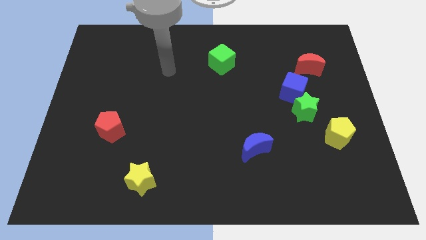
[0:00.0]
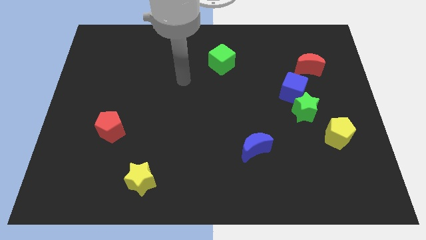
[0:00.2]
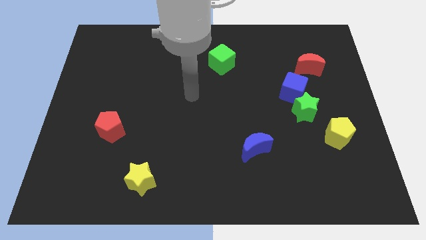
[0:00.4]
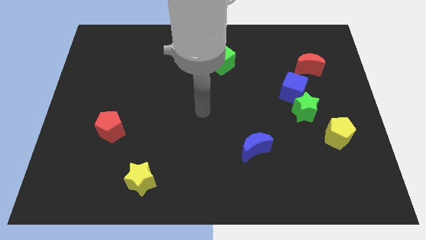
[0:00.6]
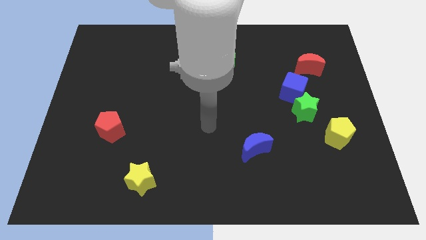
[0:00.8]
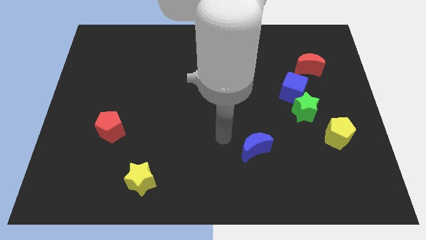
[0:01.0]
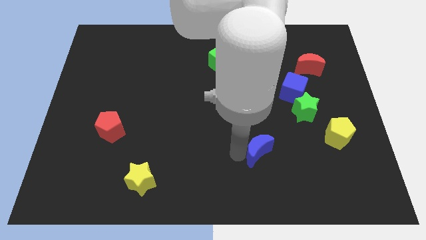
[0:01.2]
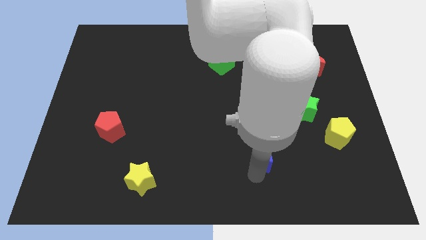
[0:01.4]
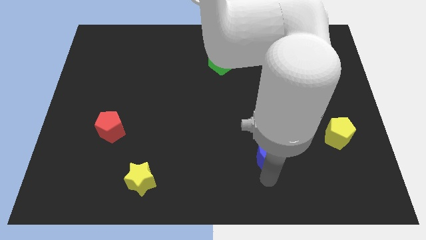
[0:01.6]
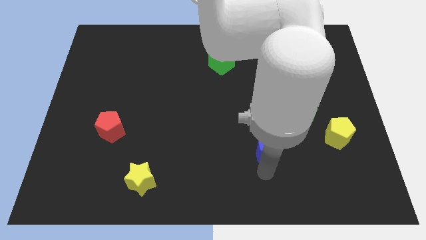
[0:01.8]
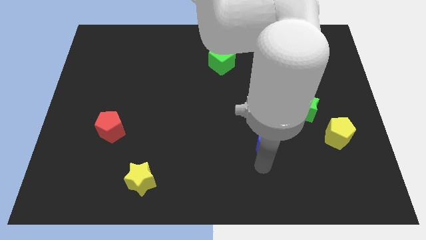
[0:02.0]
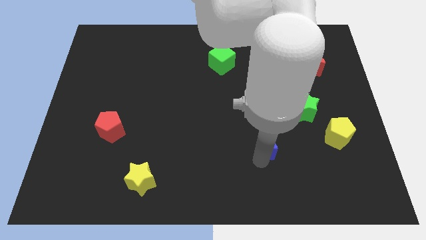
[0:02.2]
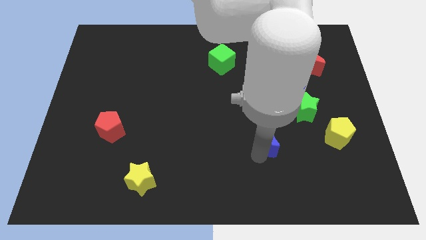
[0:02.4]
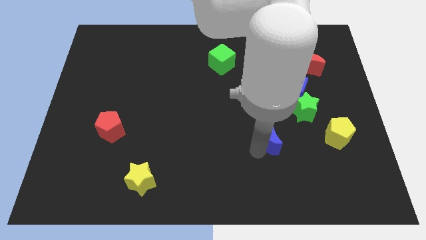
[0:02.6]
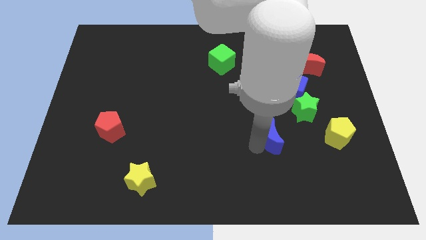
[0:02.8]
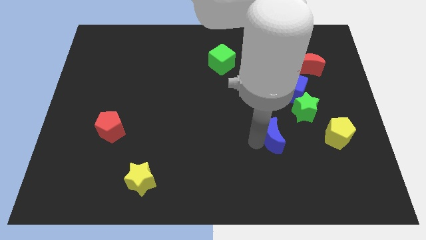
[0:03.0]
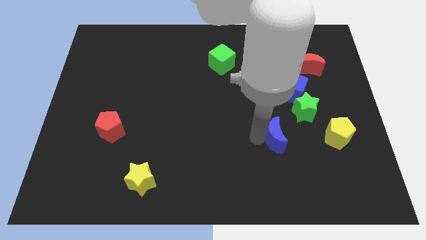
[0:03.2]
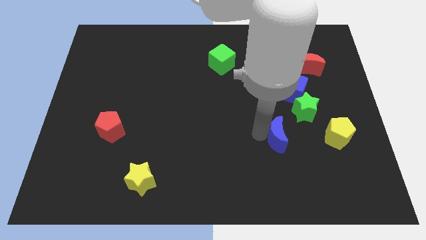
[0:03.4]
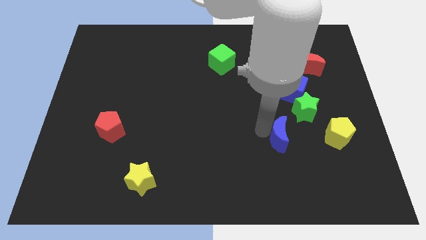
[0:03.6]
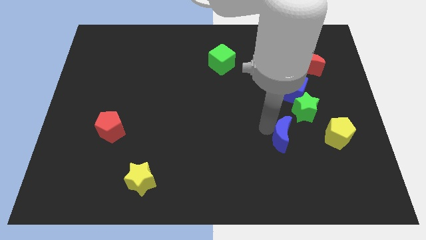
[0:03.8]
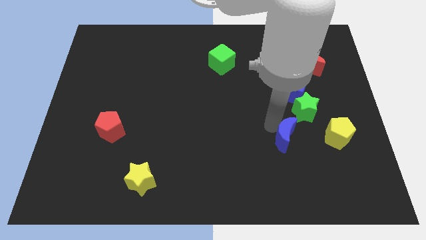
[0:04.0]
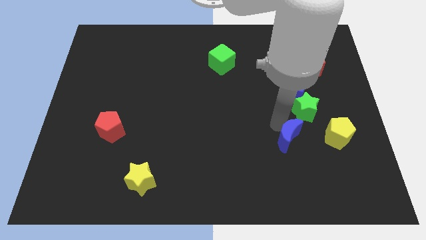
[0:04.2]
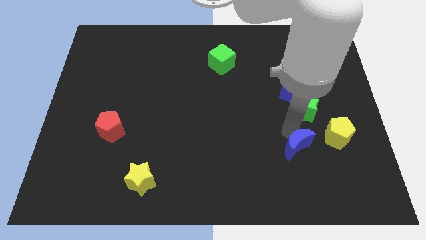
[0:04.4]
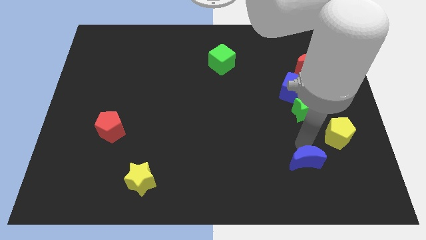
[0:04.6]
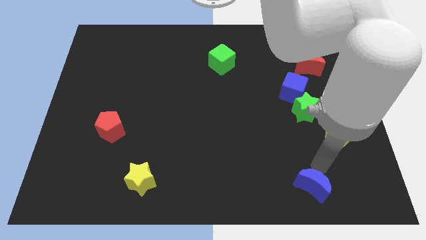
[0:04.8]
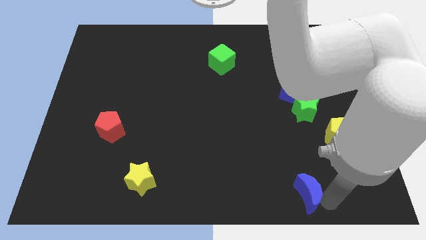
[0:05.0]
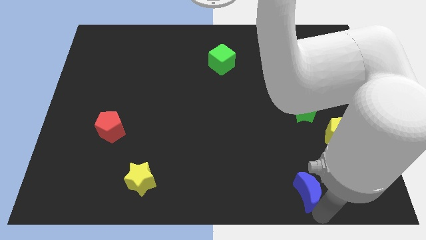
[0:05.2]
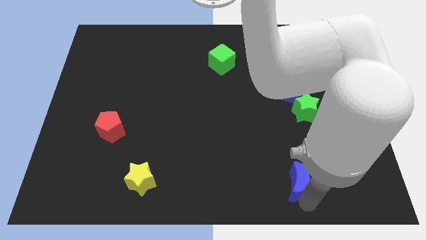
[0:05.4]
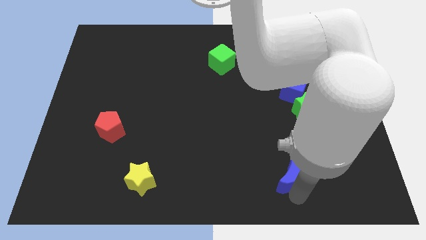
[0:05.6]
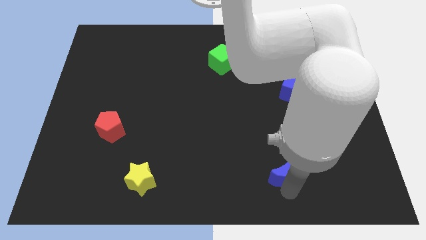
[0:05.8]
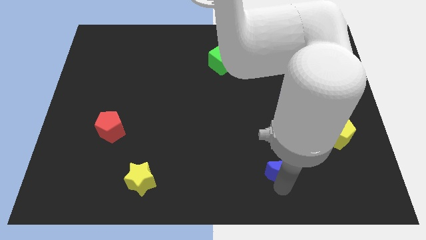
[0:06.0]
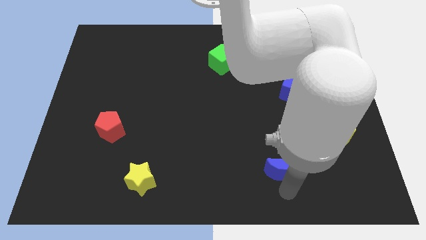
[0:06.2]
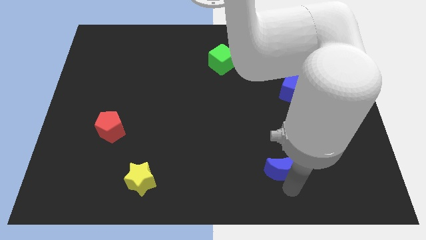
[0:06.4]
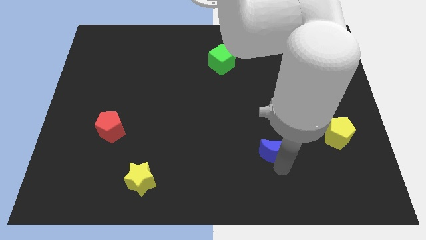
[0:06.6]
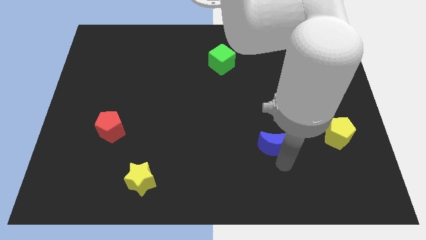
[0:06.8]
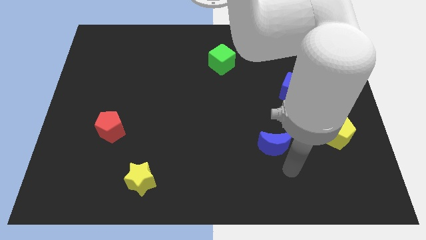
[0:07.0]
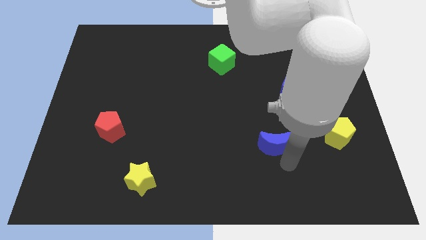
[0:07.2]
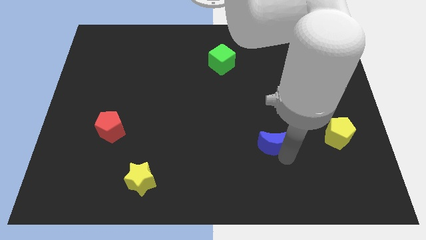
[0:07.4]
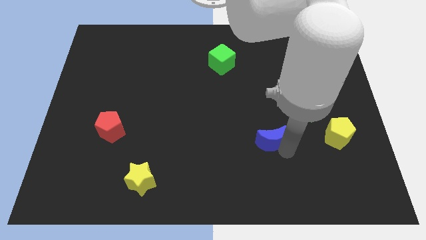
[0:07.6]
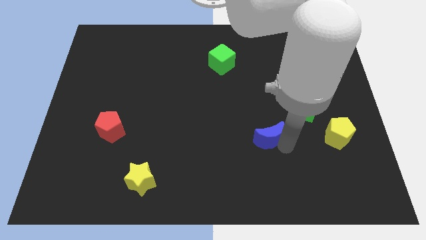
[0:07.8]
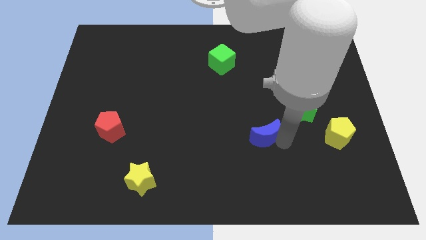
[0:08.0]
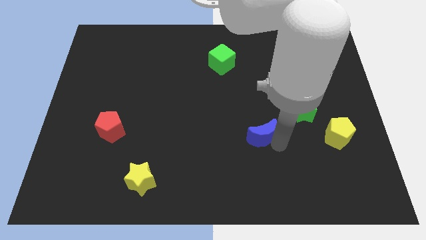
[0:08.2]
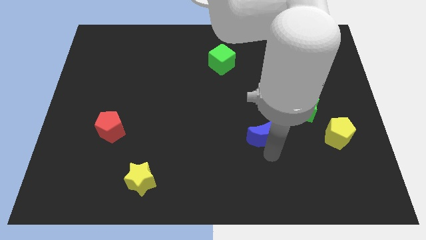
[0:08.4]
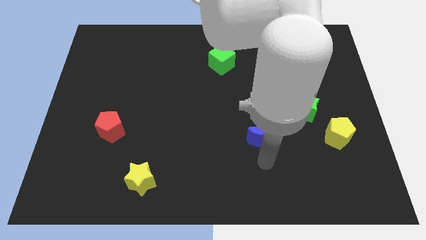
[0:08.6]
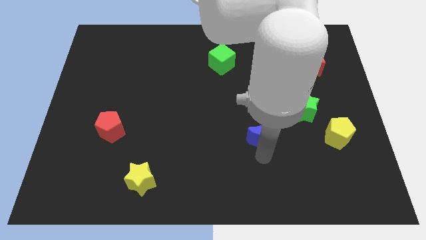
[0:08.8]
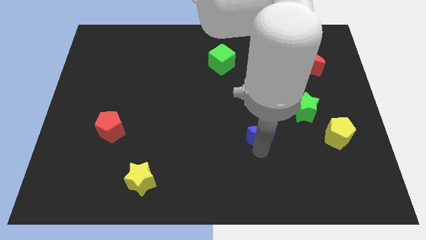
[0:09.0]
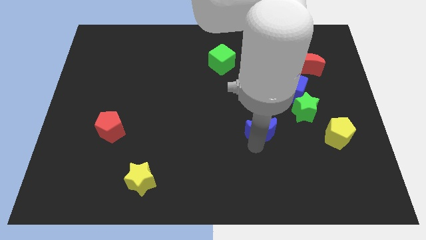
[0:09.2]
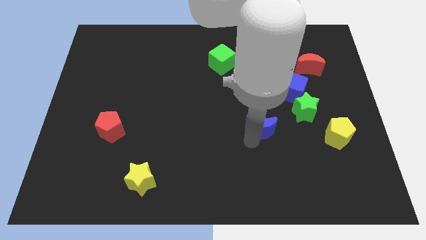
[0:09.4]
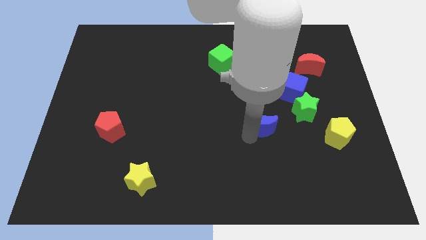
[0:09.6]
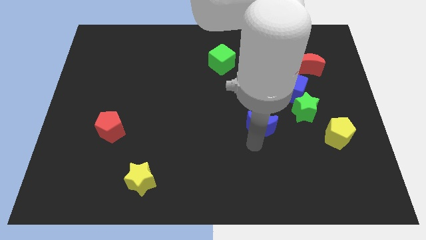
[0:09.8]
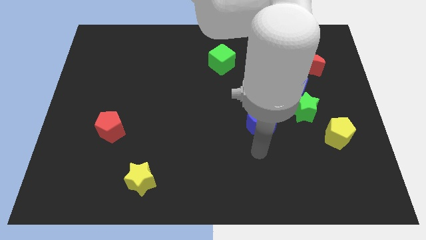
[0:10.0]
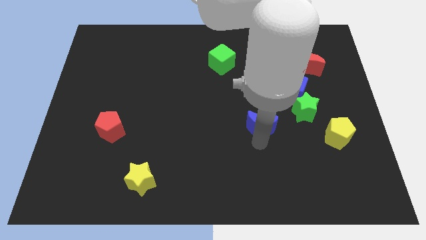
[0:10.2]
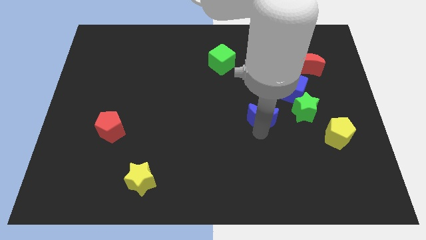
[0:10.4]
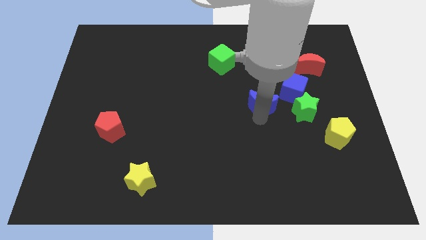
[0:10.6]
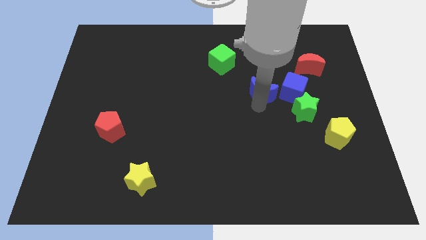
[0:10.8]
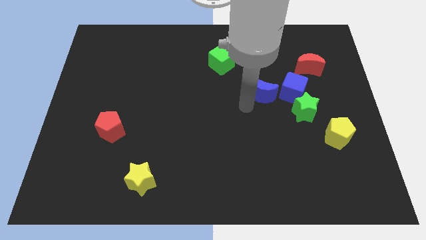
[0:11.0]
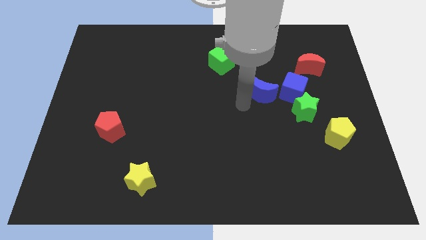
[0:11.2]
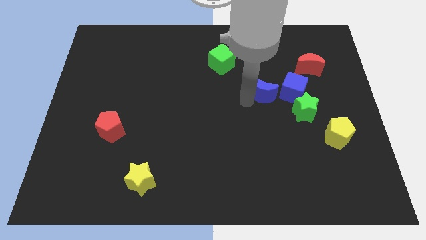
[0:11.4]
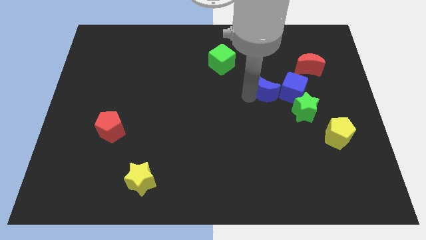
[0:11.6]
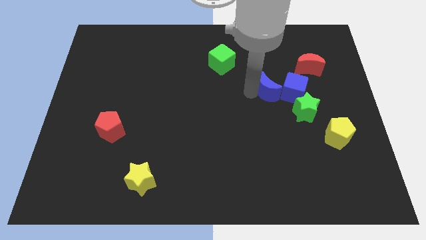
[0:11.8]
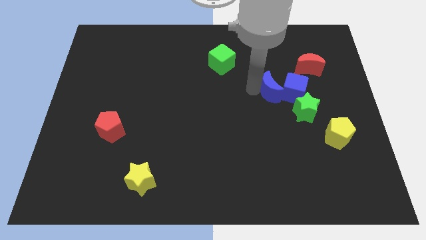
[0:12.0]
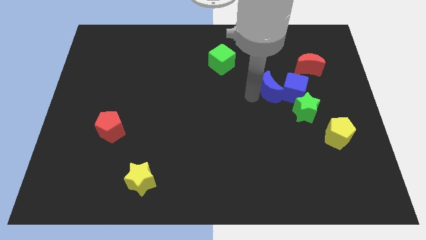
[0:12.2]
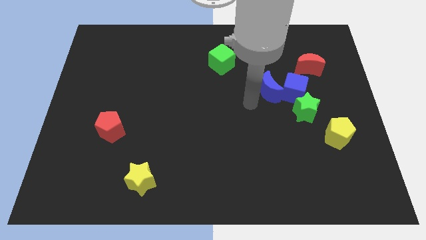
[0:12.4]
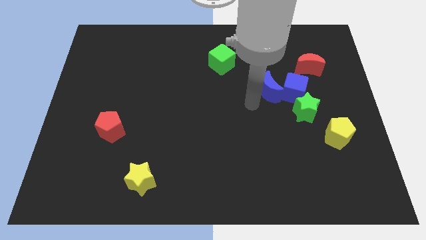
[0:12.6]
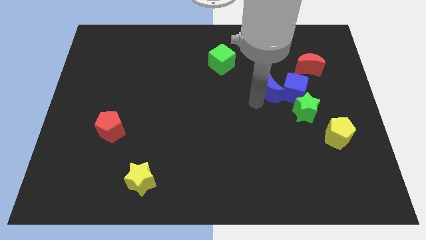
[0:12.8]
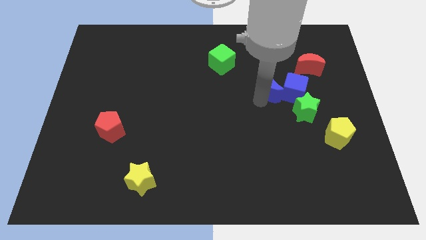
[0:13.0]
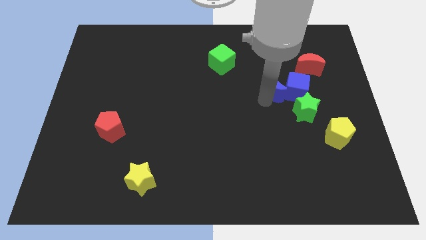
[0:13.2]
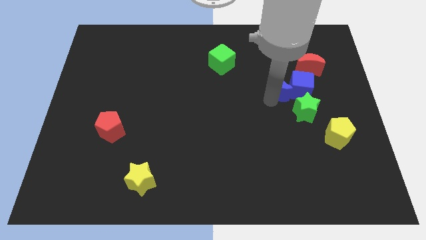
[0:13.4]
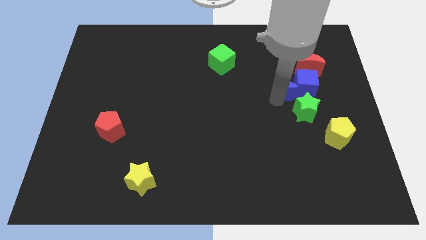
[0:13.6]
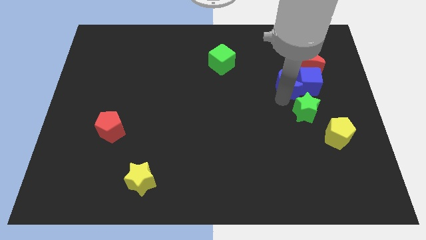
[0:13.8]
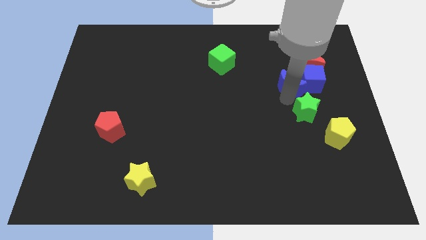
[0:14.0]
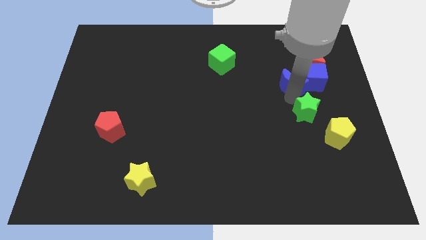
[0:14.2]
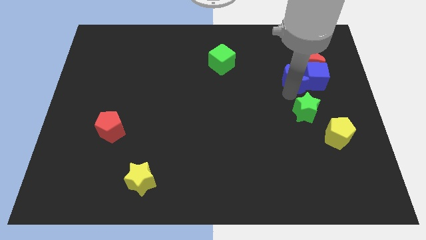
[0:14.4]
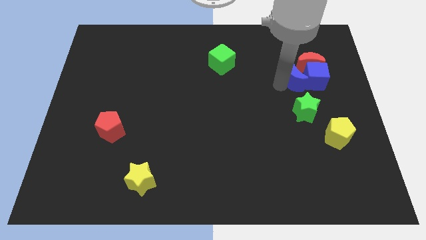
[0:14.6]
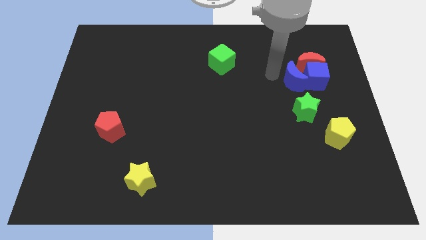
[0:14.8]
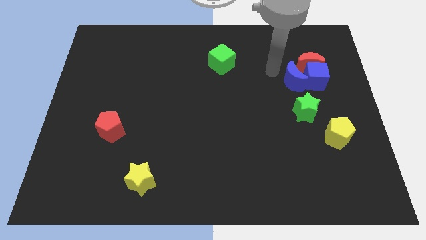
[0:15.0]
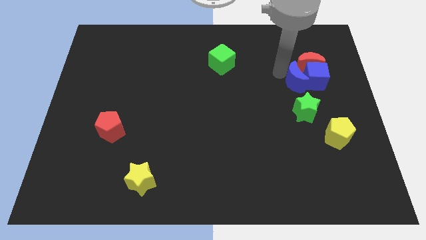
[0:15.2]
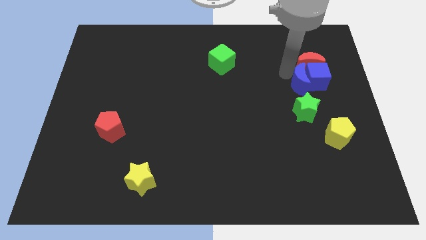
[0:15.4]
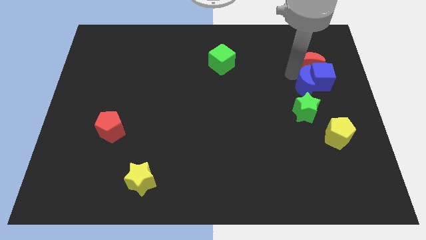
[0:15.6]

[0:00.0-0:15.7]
slide the blue moon diagonally up and to the right of the green star
